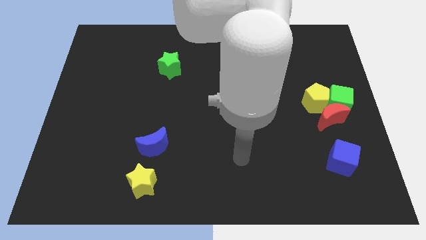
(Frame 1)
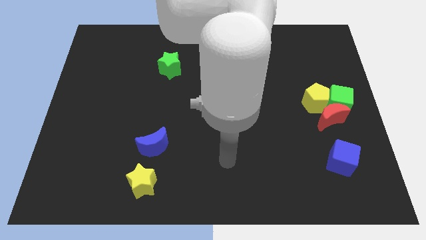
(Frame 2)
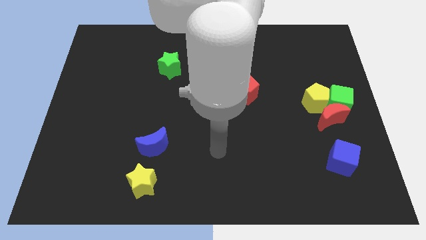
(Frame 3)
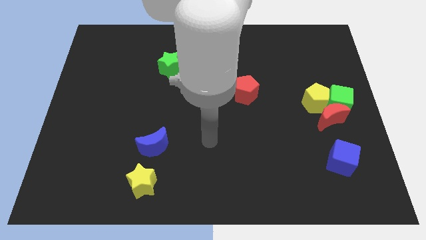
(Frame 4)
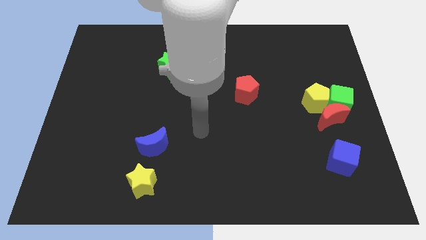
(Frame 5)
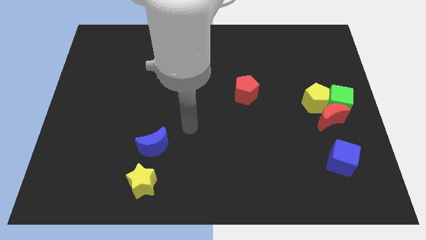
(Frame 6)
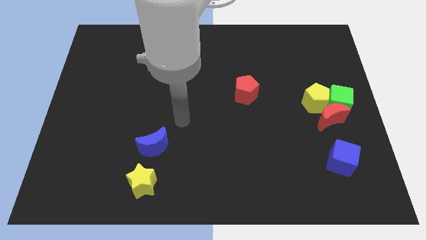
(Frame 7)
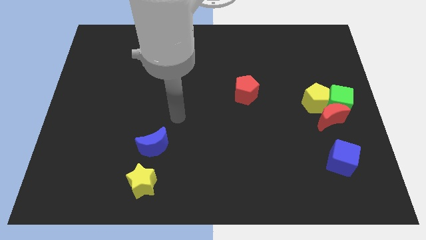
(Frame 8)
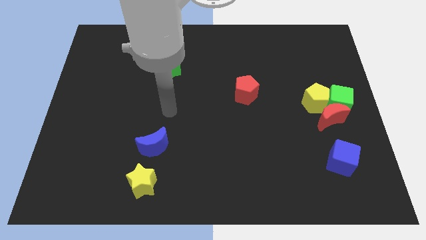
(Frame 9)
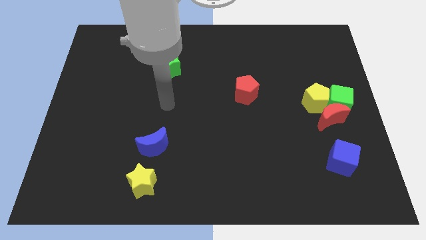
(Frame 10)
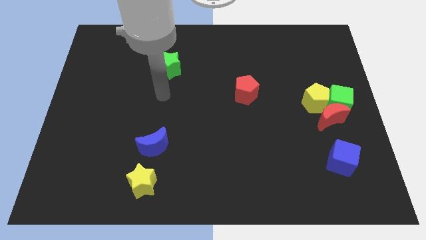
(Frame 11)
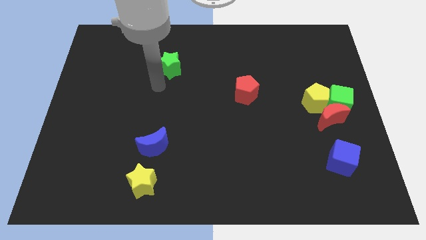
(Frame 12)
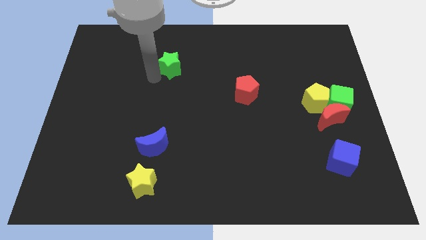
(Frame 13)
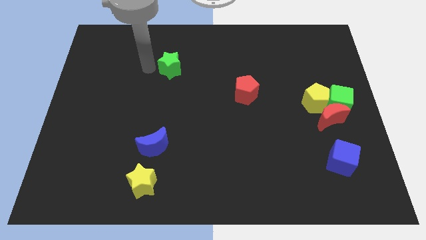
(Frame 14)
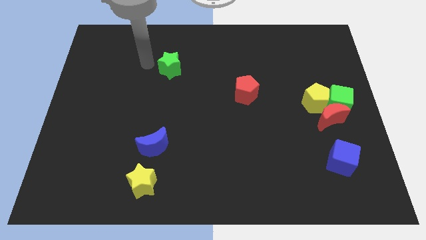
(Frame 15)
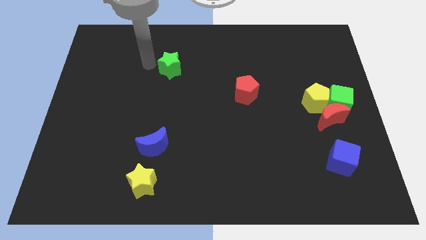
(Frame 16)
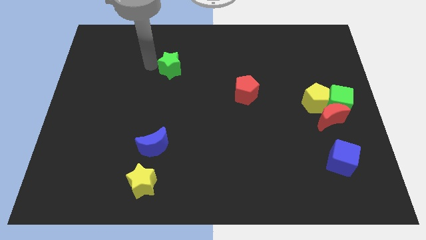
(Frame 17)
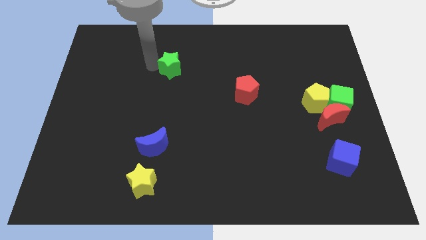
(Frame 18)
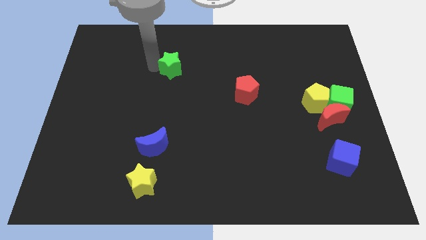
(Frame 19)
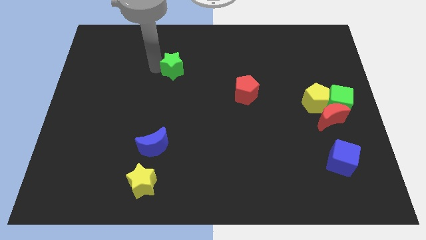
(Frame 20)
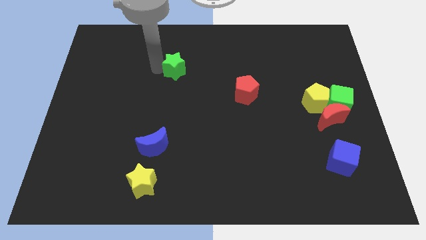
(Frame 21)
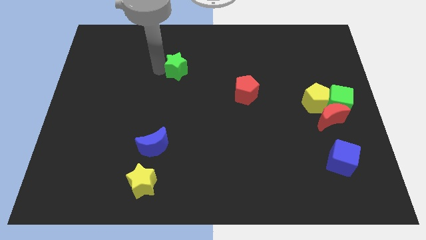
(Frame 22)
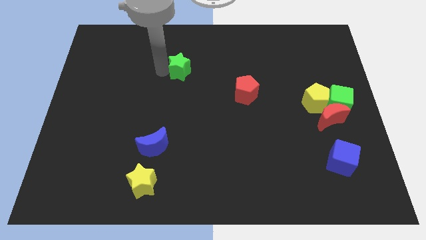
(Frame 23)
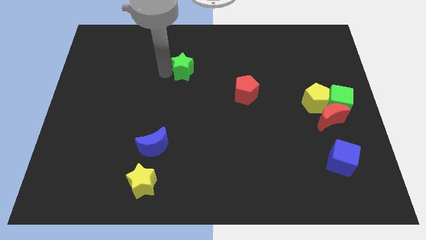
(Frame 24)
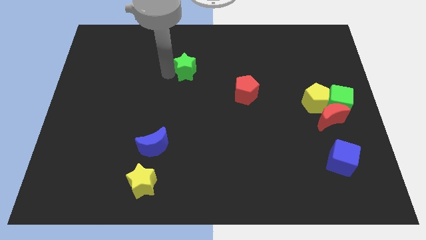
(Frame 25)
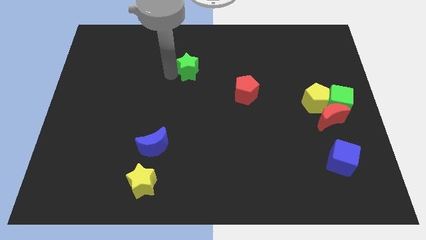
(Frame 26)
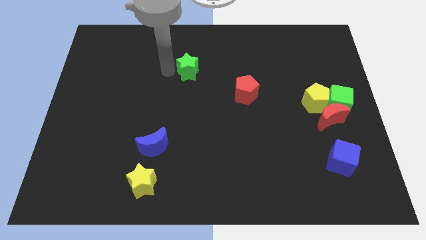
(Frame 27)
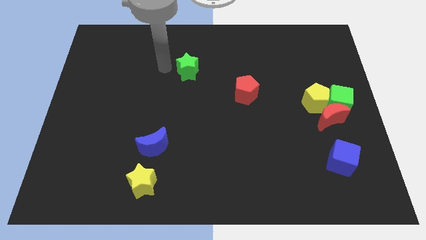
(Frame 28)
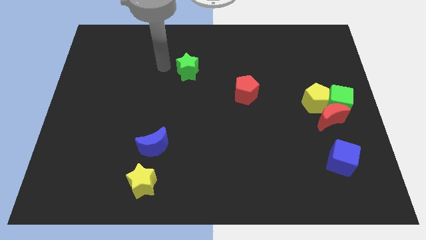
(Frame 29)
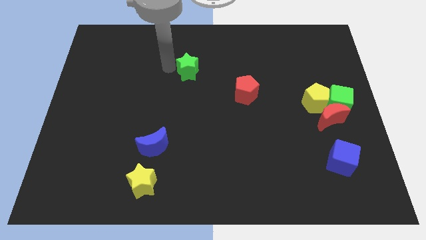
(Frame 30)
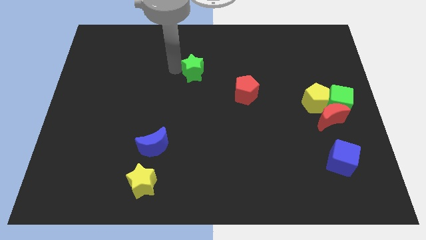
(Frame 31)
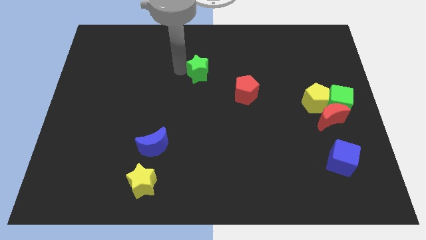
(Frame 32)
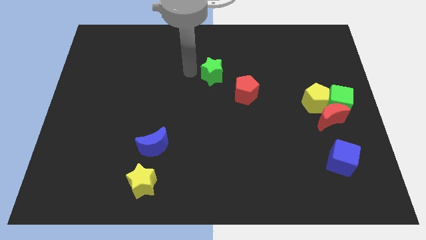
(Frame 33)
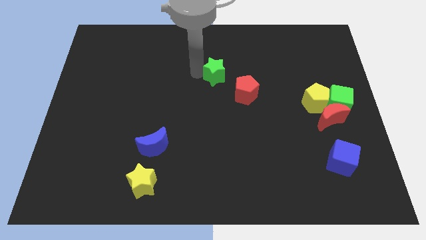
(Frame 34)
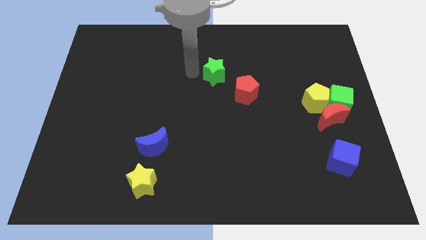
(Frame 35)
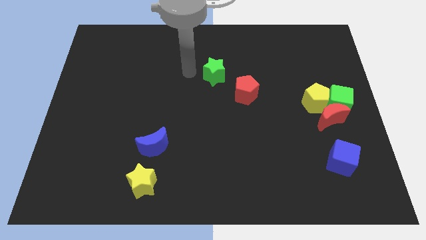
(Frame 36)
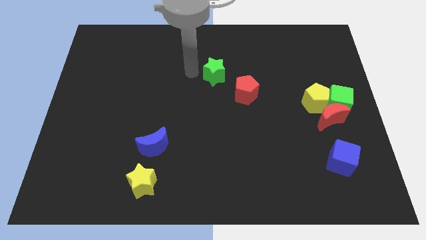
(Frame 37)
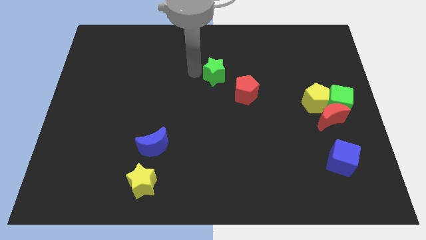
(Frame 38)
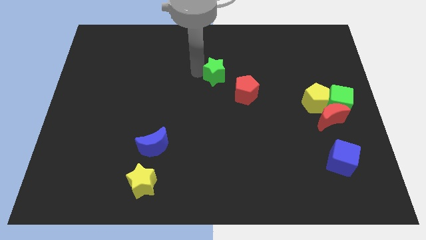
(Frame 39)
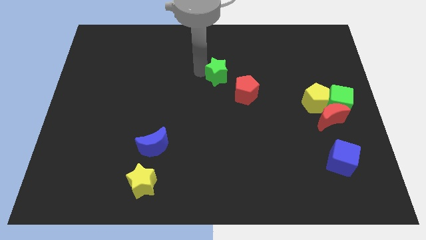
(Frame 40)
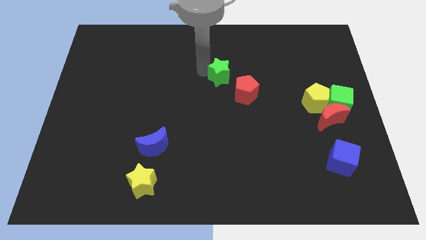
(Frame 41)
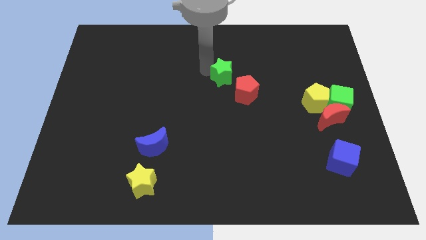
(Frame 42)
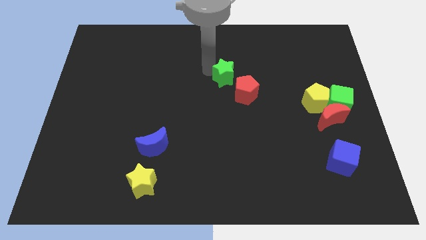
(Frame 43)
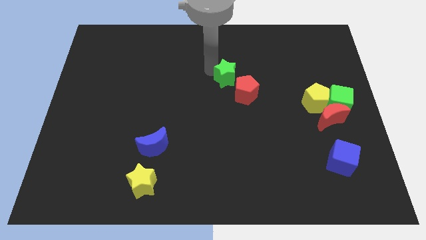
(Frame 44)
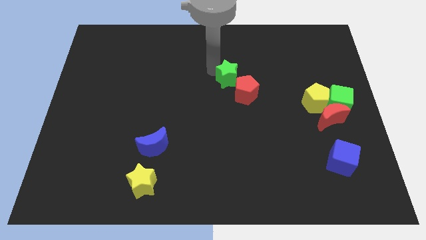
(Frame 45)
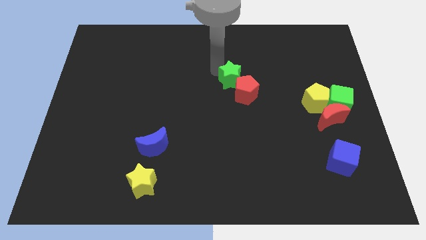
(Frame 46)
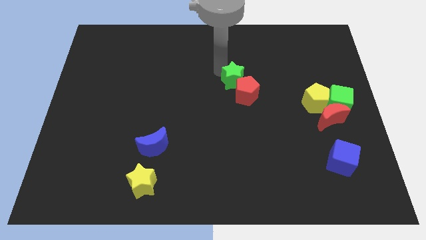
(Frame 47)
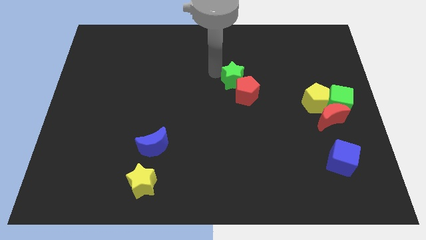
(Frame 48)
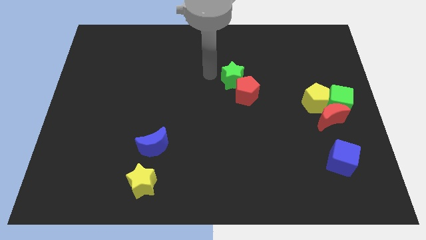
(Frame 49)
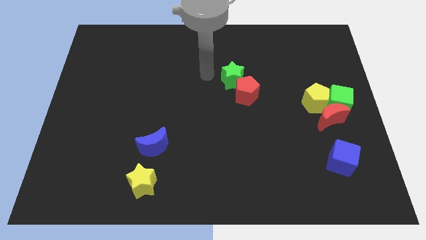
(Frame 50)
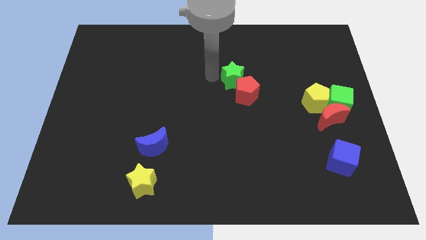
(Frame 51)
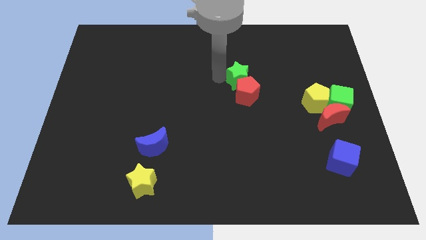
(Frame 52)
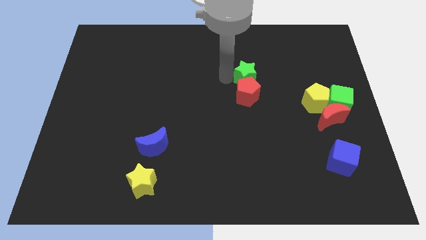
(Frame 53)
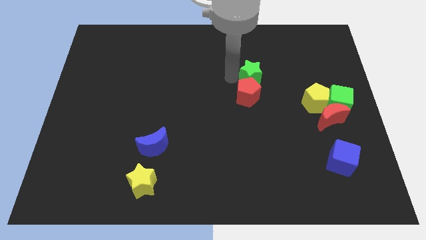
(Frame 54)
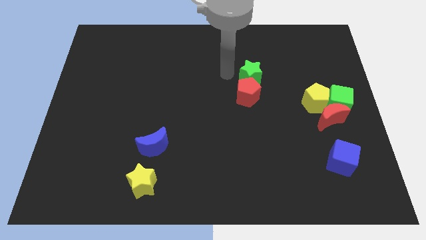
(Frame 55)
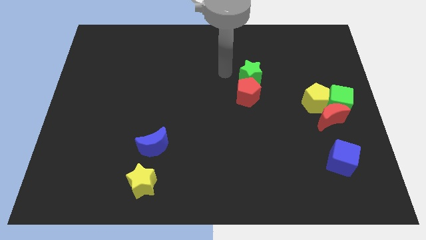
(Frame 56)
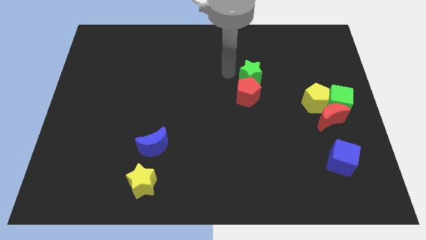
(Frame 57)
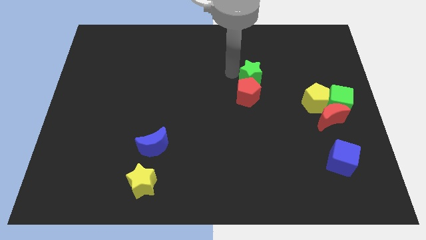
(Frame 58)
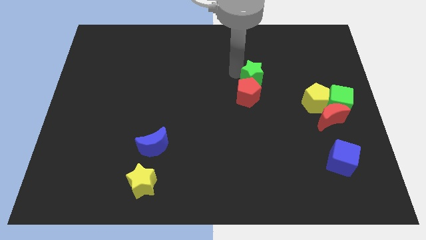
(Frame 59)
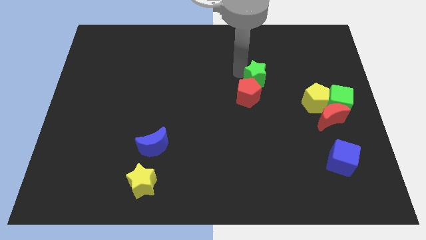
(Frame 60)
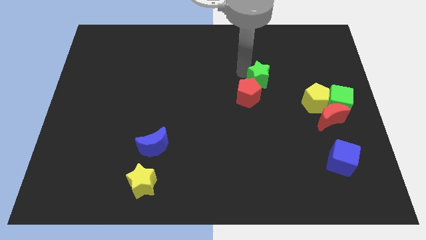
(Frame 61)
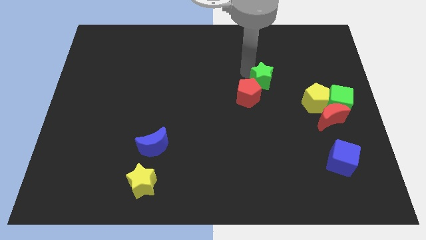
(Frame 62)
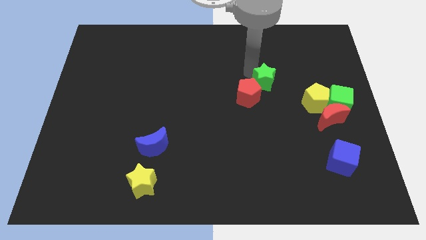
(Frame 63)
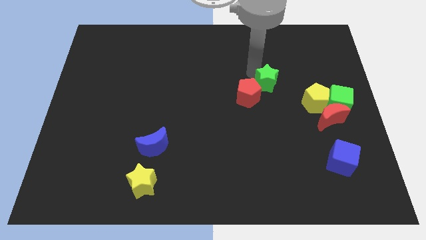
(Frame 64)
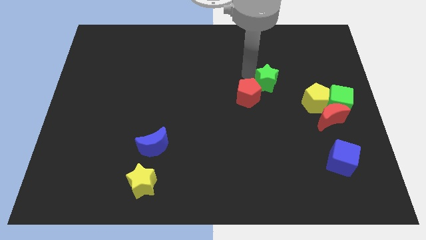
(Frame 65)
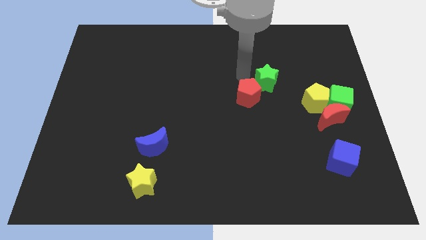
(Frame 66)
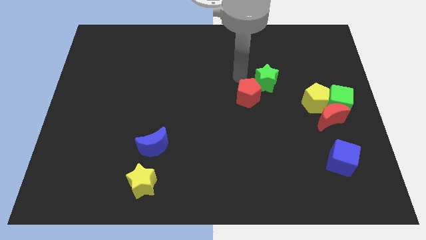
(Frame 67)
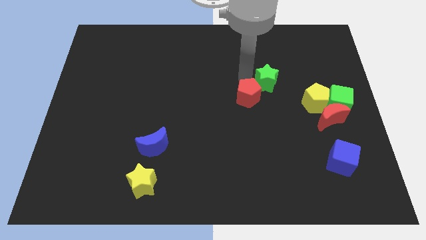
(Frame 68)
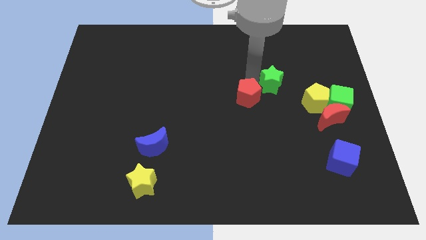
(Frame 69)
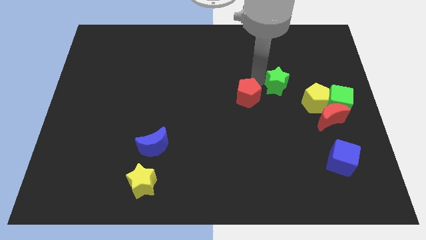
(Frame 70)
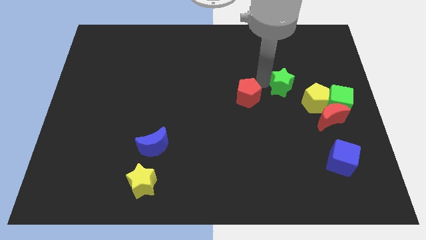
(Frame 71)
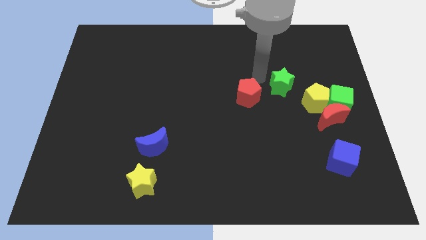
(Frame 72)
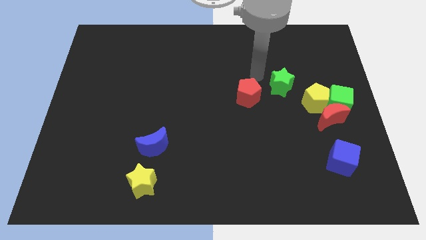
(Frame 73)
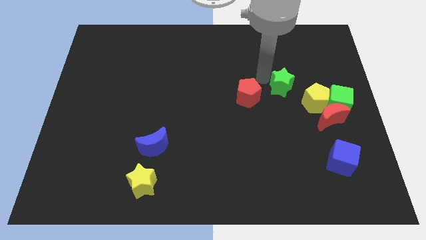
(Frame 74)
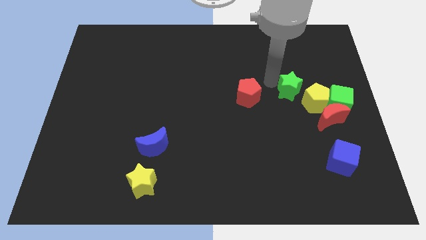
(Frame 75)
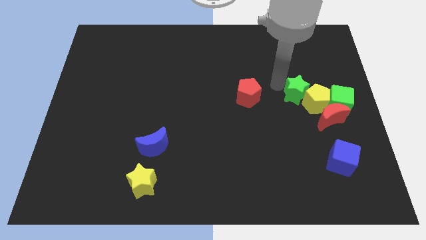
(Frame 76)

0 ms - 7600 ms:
put the green star to the yellow pentagon
